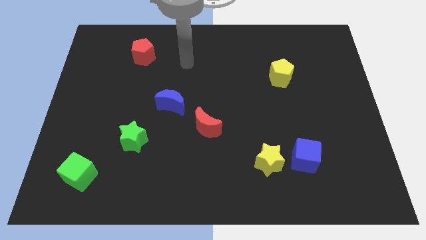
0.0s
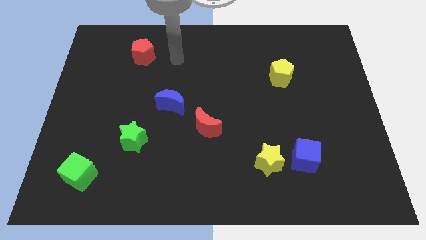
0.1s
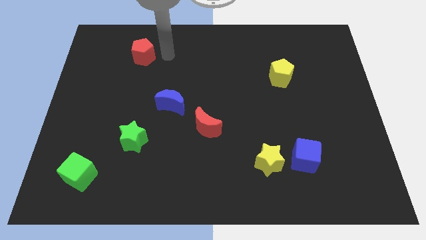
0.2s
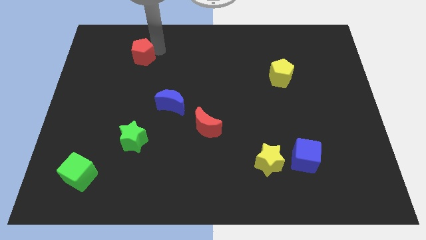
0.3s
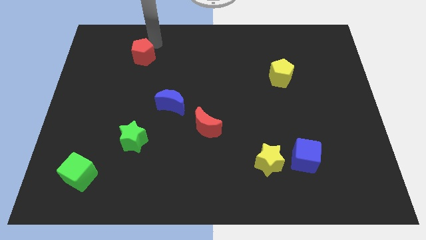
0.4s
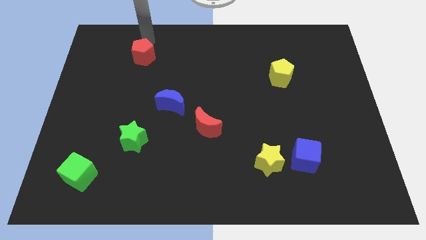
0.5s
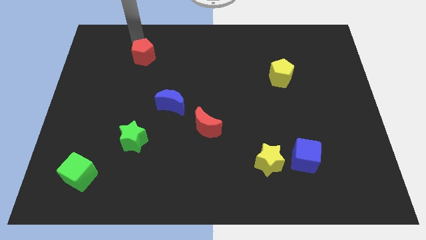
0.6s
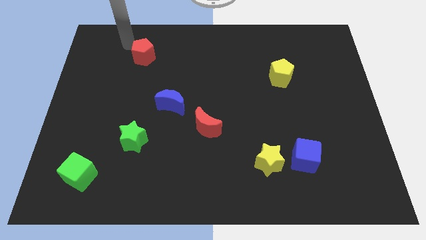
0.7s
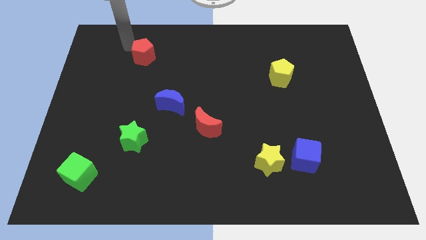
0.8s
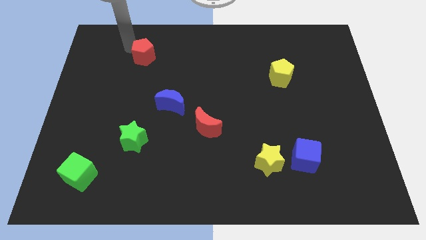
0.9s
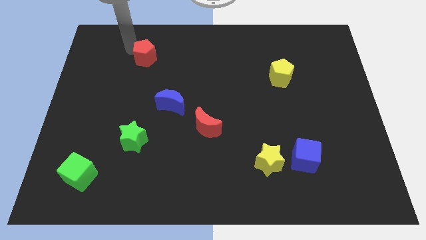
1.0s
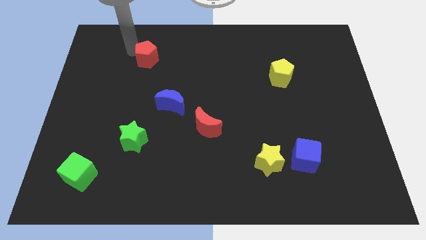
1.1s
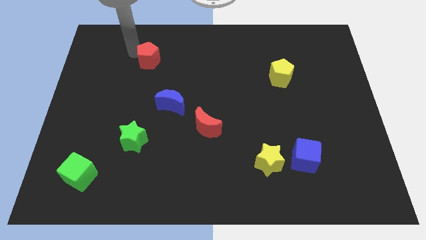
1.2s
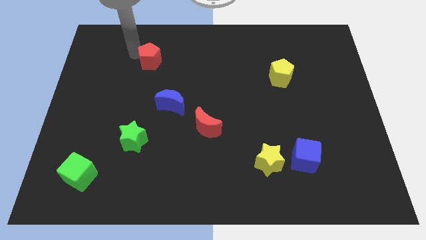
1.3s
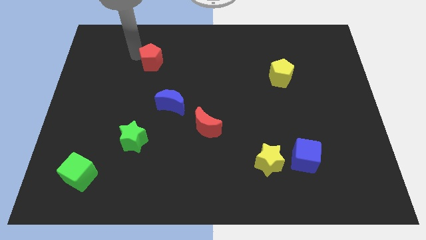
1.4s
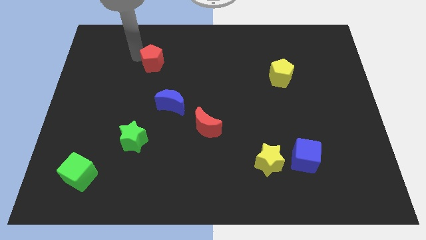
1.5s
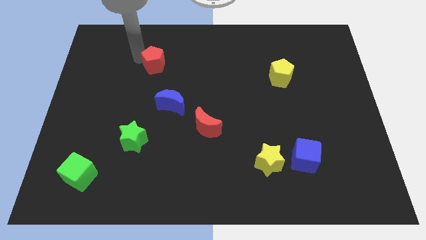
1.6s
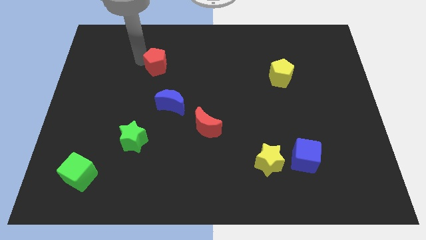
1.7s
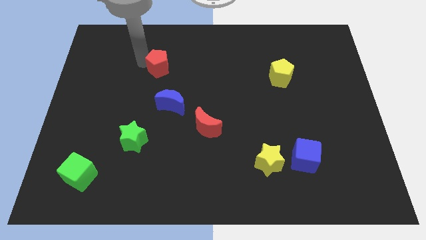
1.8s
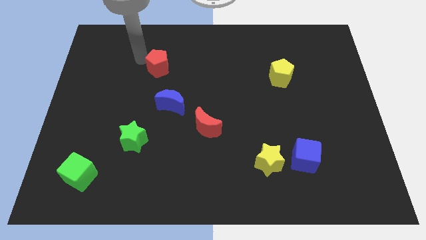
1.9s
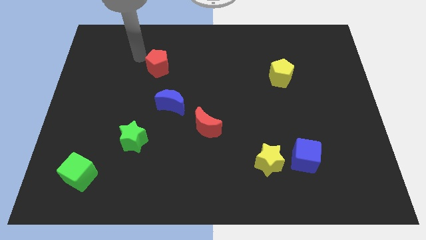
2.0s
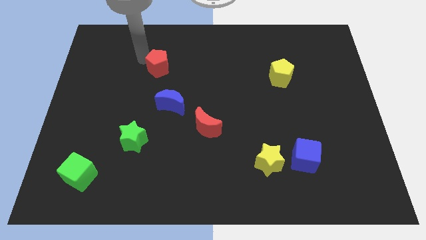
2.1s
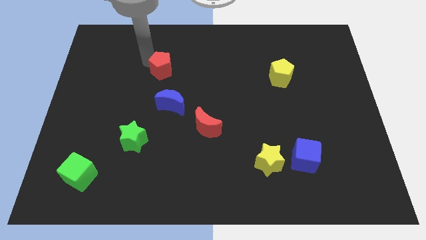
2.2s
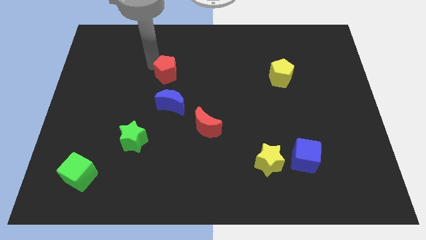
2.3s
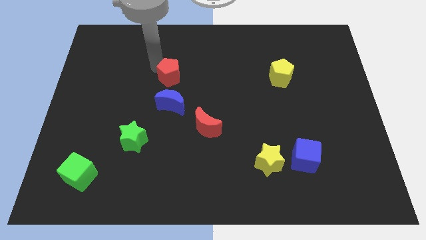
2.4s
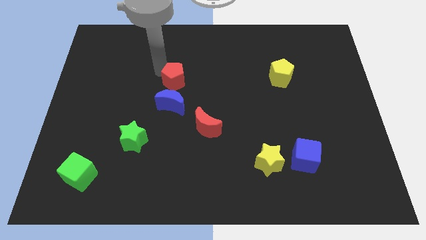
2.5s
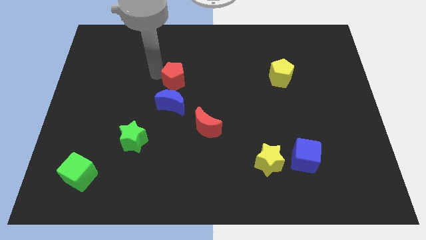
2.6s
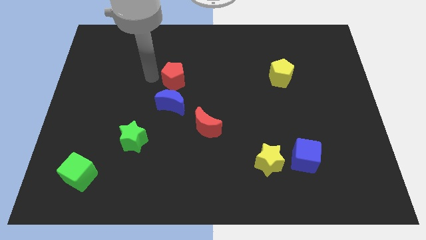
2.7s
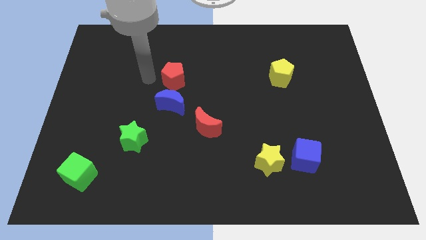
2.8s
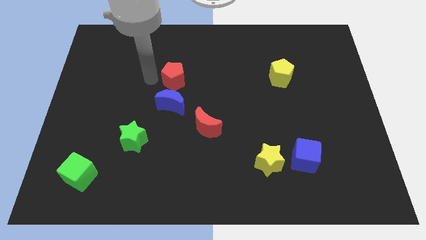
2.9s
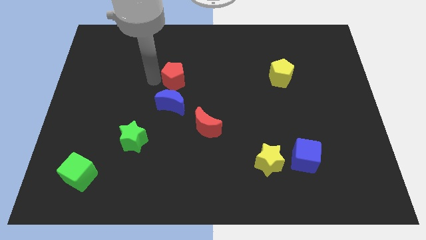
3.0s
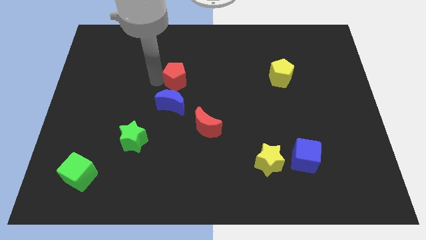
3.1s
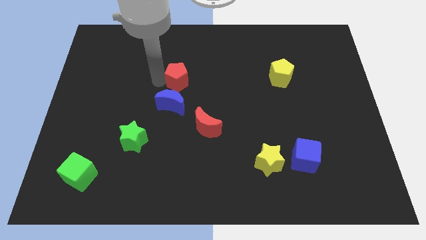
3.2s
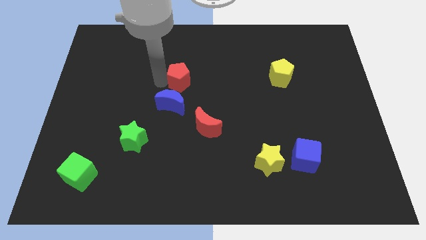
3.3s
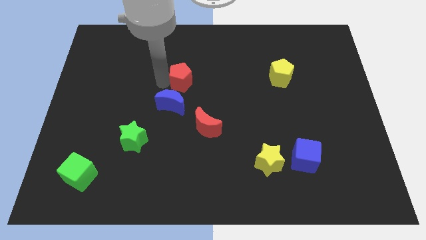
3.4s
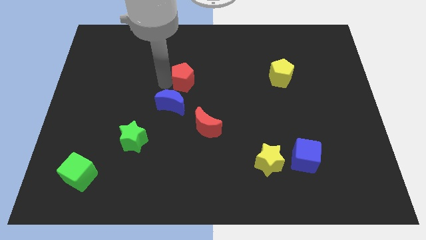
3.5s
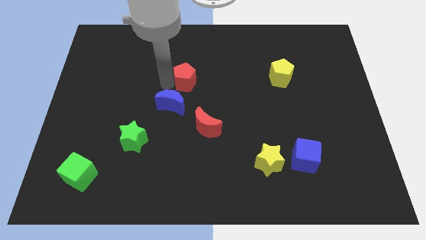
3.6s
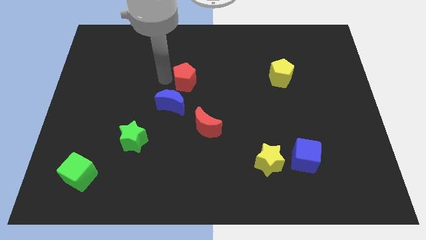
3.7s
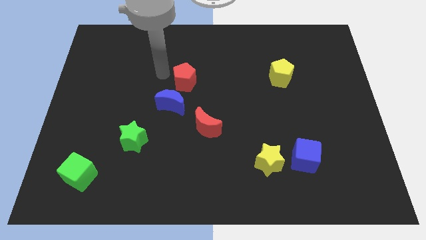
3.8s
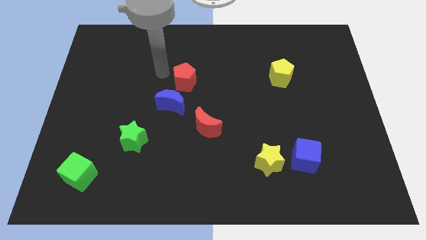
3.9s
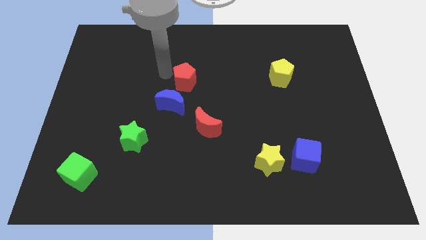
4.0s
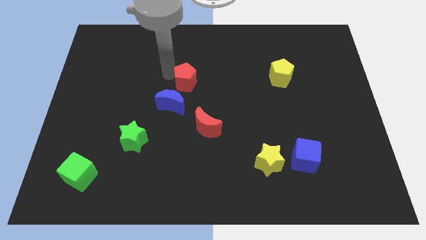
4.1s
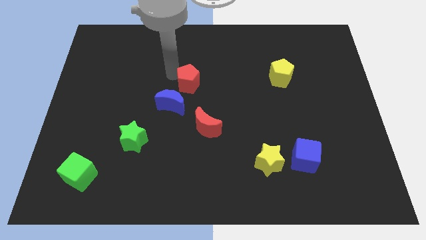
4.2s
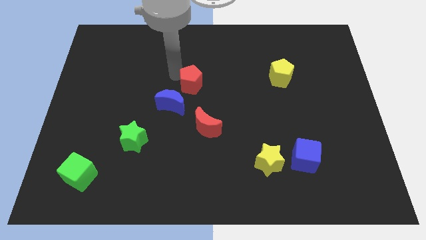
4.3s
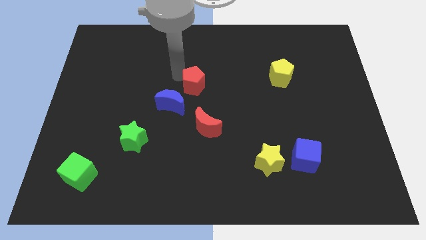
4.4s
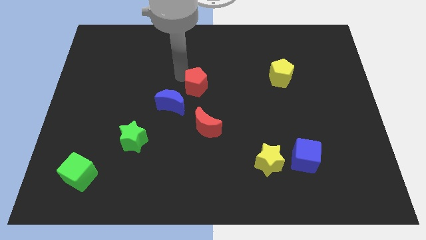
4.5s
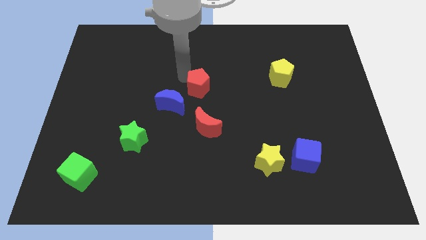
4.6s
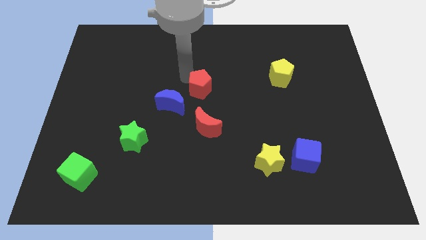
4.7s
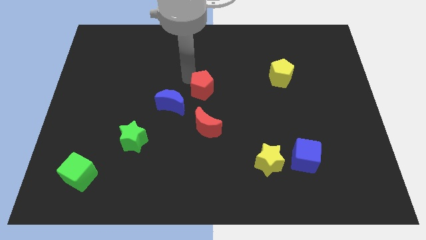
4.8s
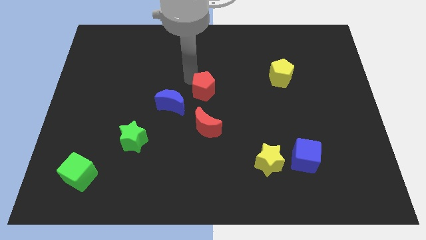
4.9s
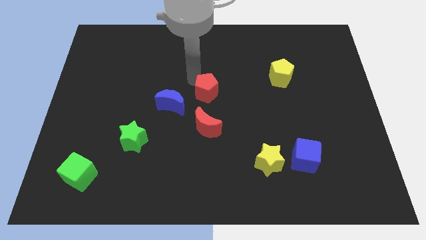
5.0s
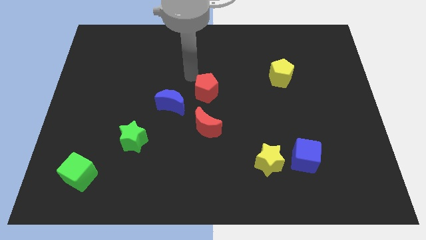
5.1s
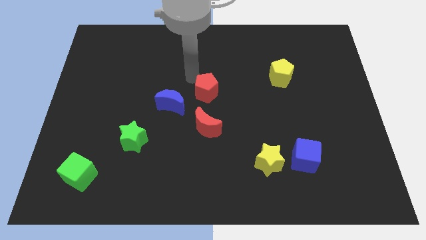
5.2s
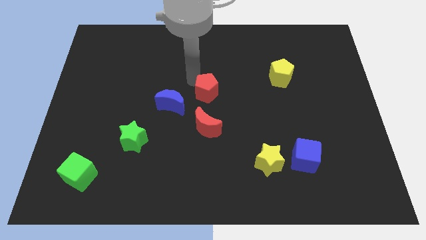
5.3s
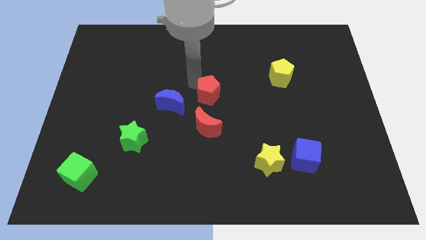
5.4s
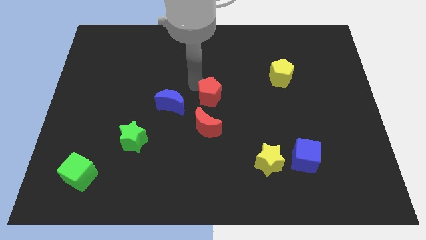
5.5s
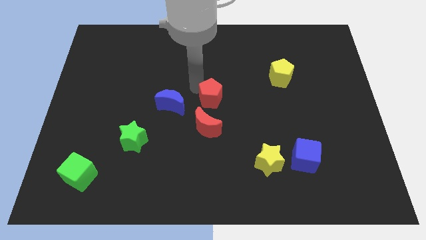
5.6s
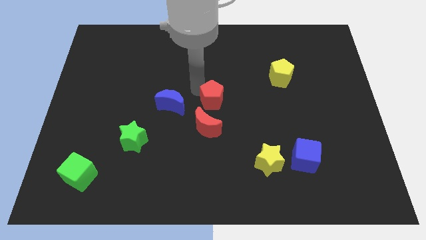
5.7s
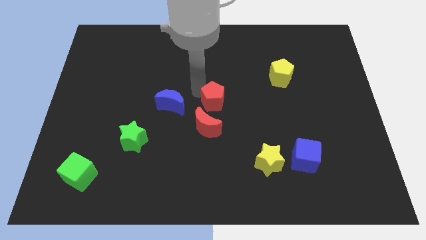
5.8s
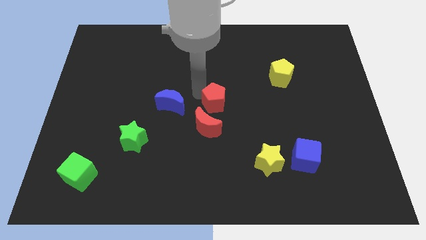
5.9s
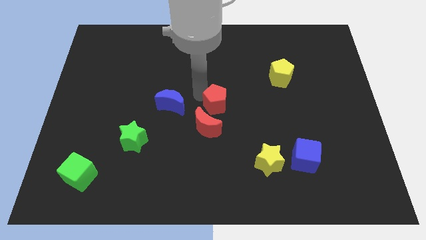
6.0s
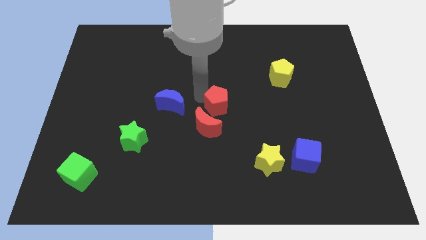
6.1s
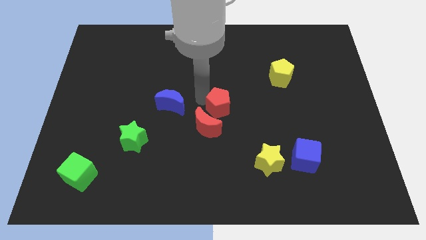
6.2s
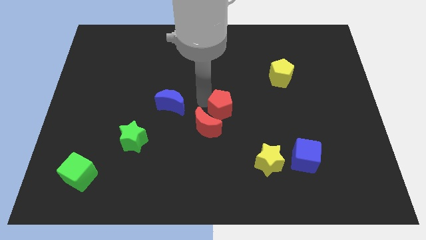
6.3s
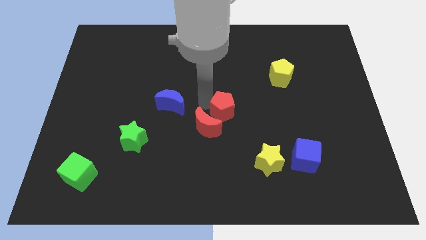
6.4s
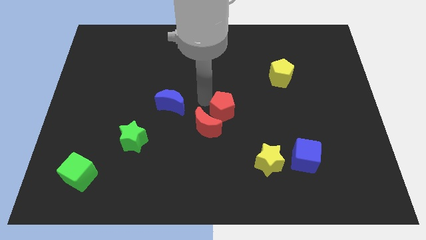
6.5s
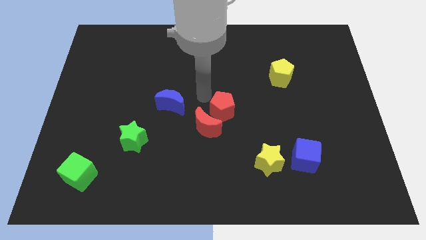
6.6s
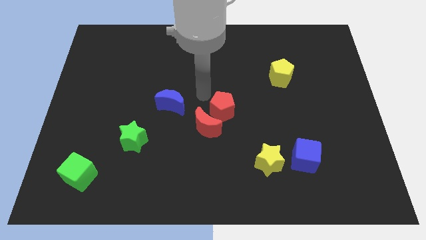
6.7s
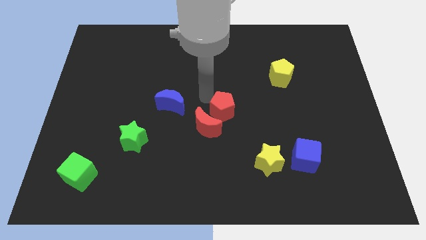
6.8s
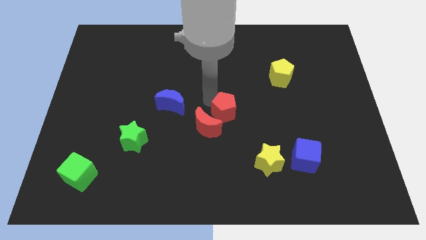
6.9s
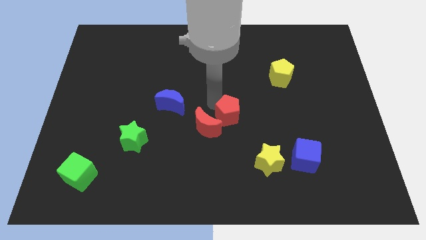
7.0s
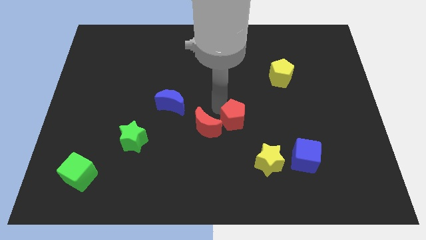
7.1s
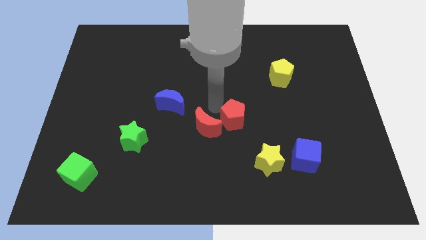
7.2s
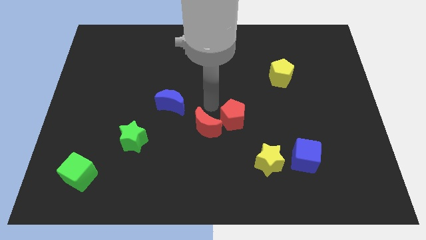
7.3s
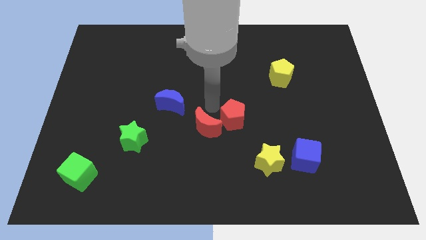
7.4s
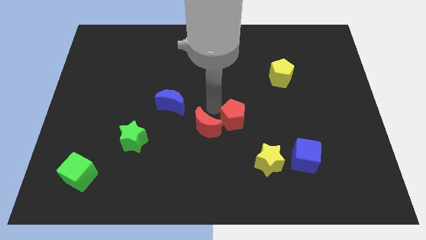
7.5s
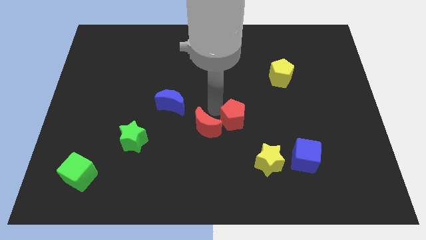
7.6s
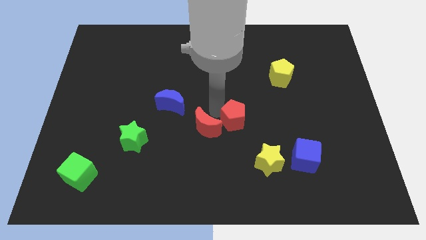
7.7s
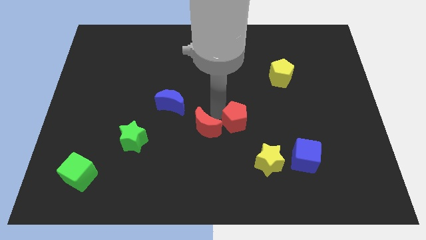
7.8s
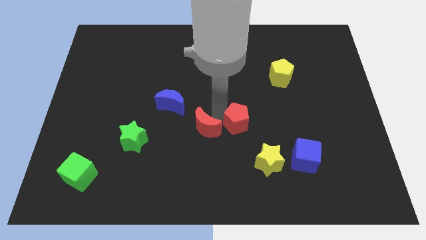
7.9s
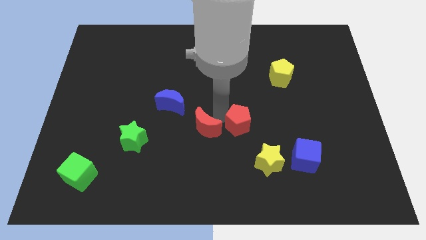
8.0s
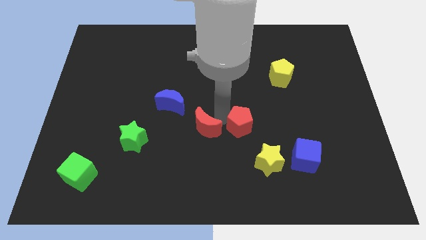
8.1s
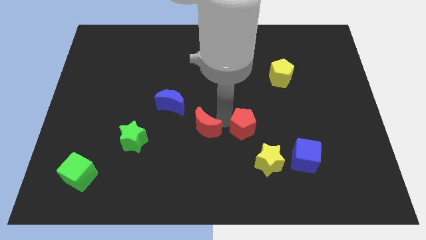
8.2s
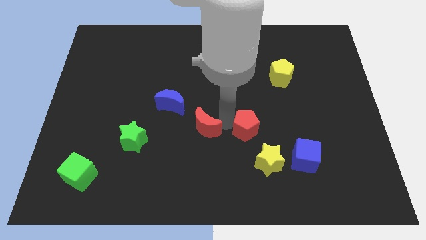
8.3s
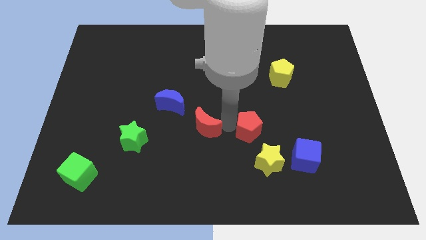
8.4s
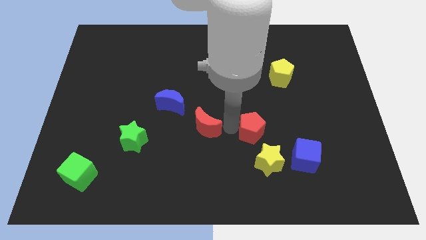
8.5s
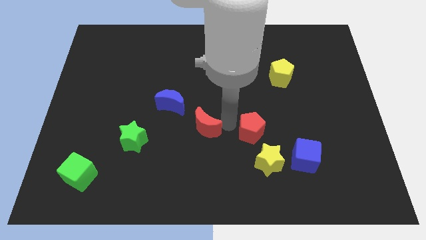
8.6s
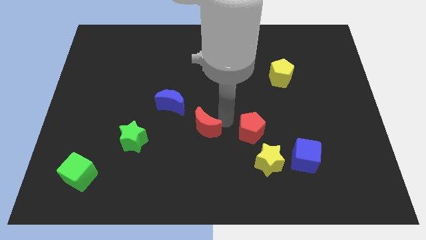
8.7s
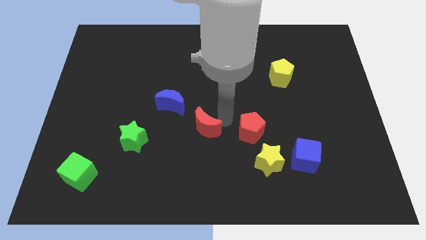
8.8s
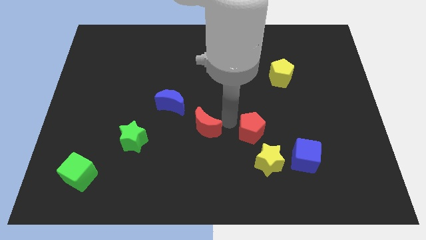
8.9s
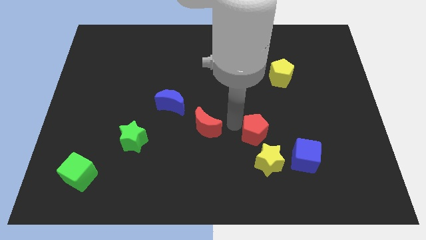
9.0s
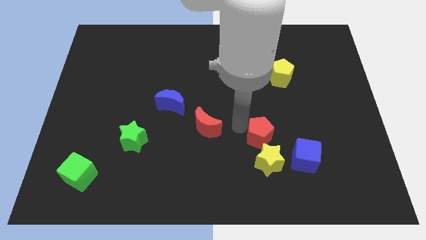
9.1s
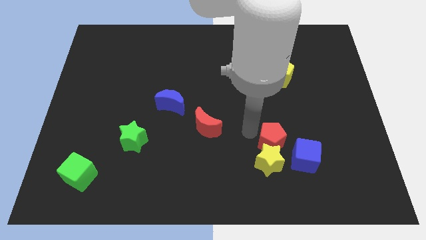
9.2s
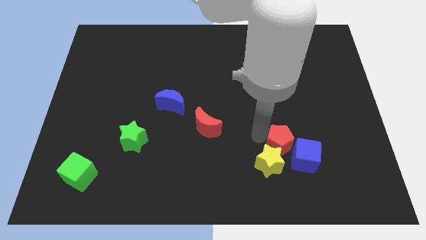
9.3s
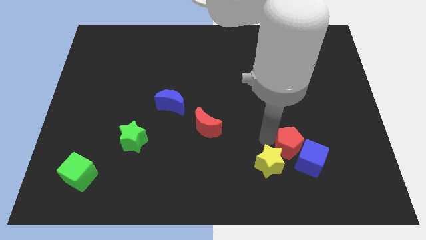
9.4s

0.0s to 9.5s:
move the red pentagon to the blue cube
